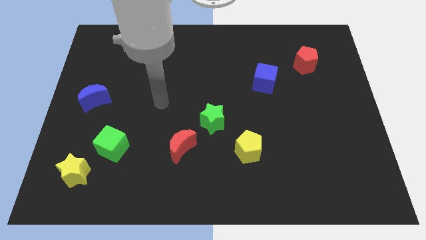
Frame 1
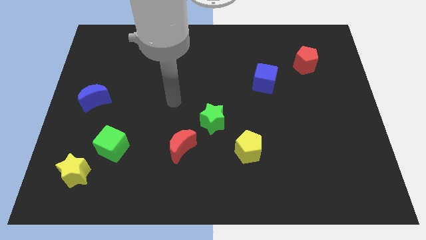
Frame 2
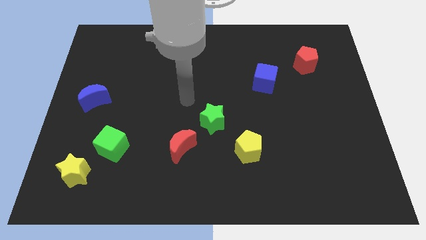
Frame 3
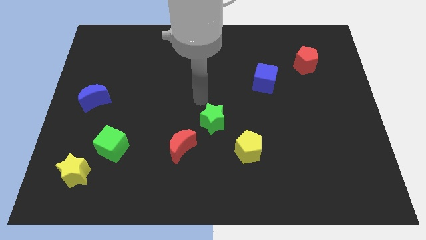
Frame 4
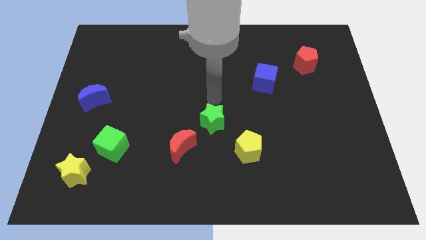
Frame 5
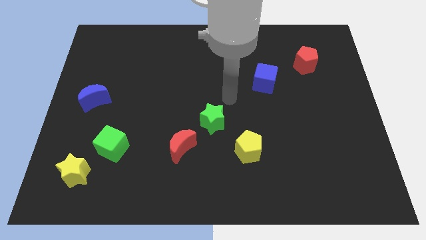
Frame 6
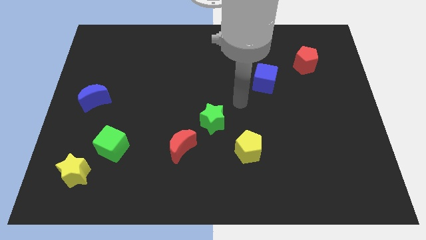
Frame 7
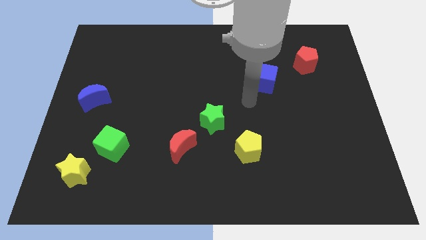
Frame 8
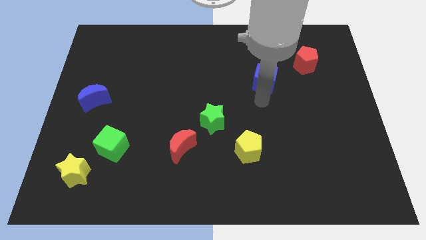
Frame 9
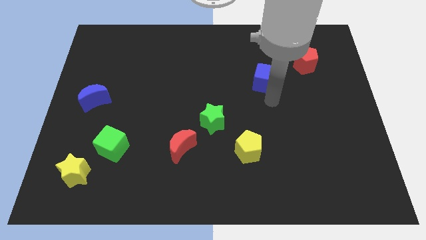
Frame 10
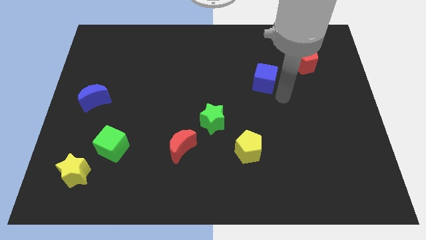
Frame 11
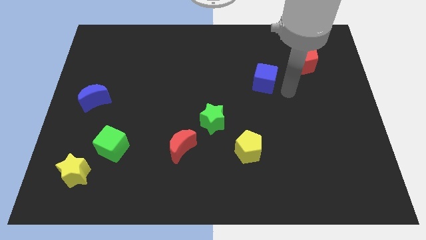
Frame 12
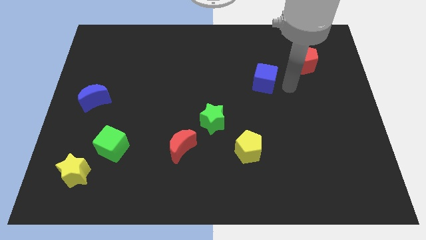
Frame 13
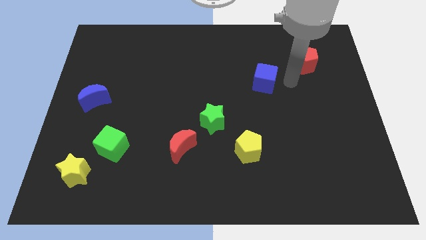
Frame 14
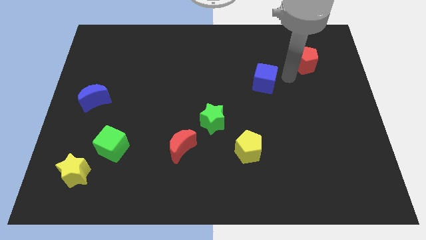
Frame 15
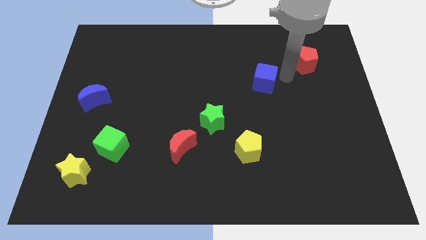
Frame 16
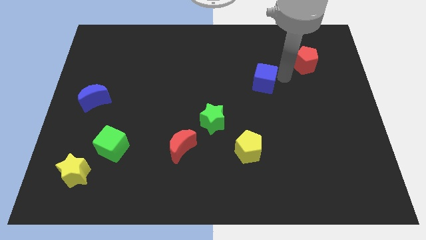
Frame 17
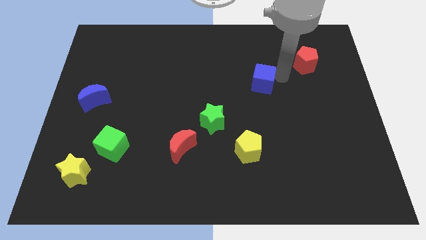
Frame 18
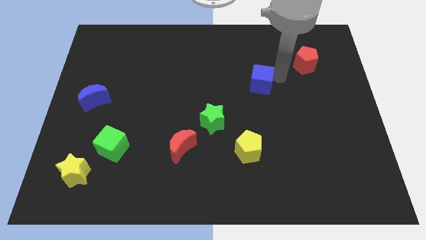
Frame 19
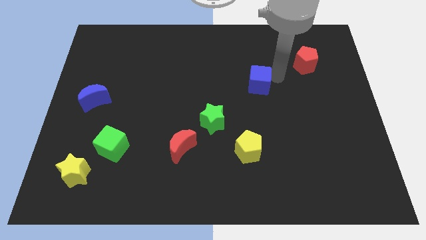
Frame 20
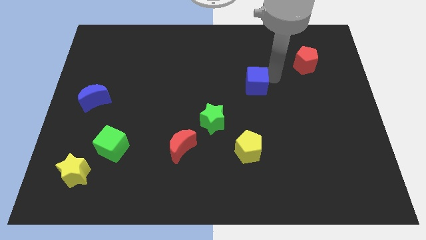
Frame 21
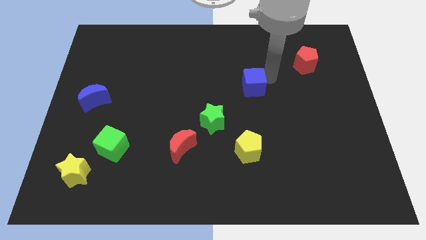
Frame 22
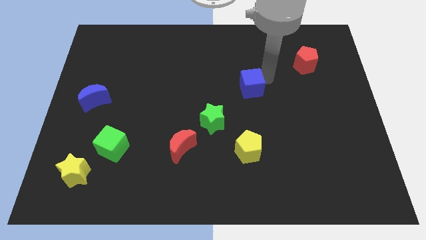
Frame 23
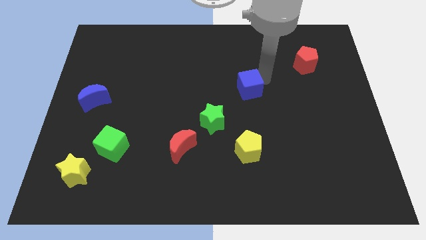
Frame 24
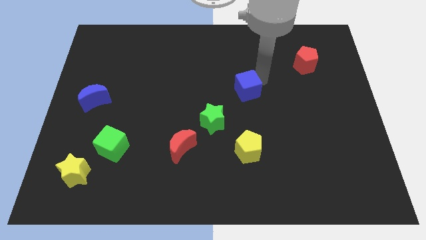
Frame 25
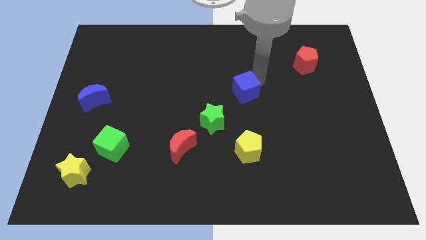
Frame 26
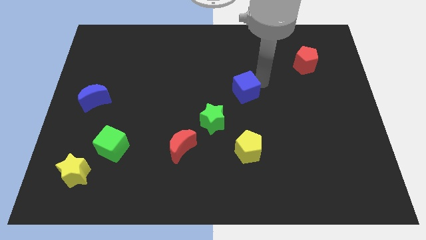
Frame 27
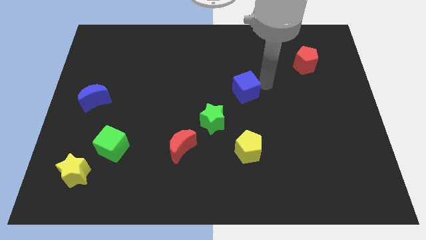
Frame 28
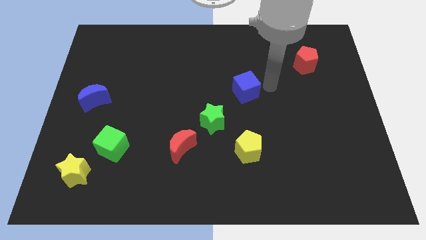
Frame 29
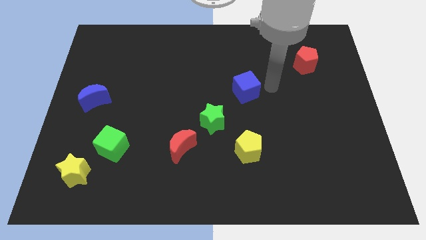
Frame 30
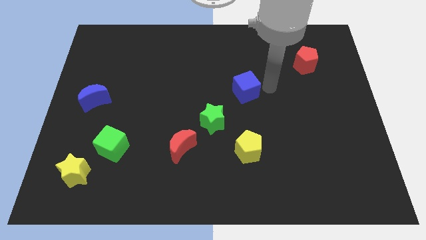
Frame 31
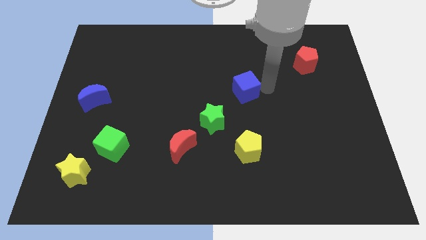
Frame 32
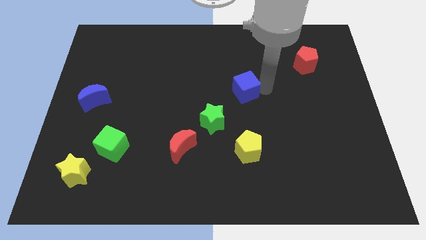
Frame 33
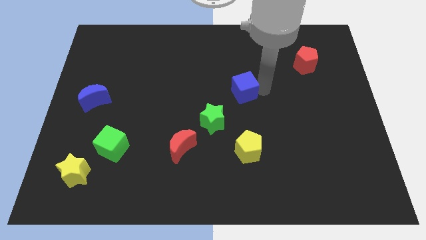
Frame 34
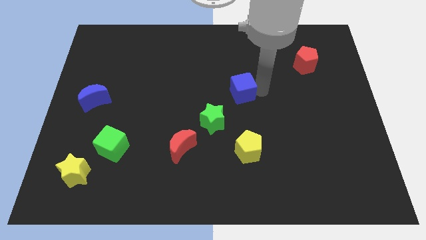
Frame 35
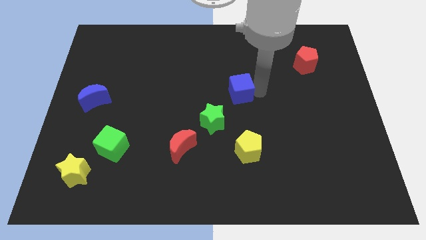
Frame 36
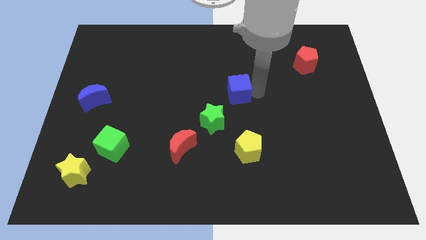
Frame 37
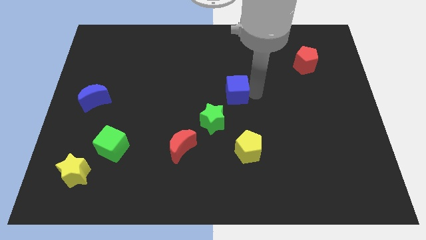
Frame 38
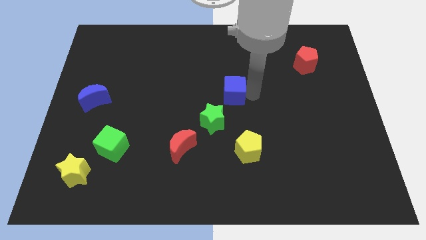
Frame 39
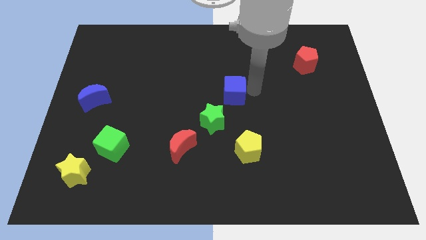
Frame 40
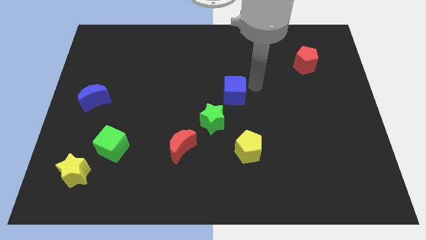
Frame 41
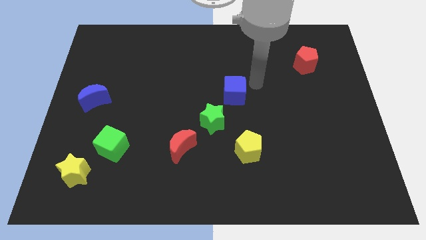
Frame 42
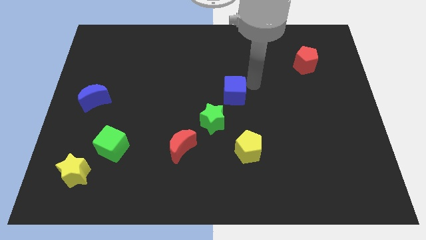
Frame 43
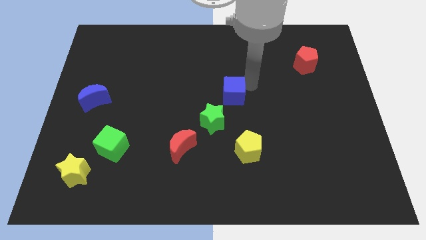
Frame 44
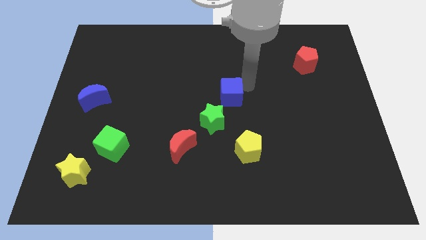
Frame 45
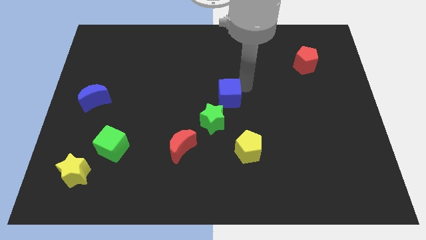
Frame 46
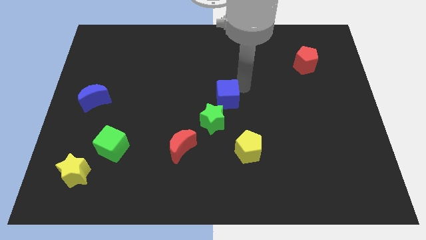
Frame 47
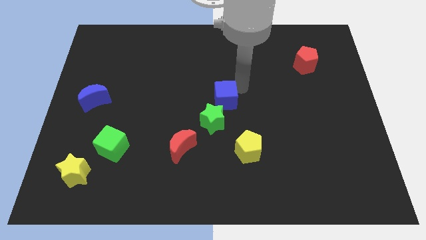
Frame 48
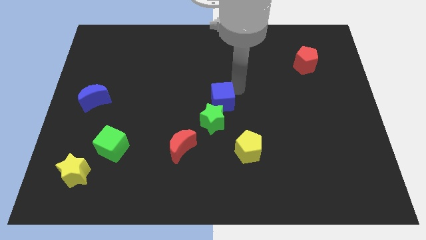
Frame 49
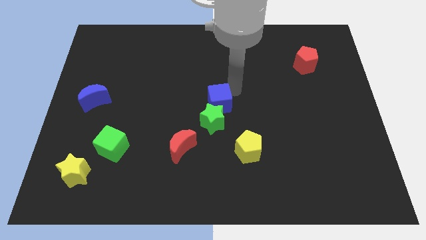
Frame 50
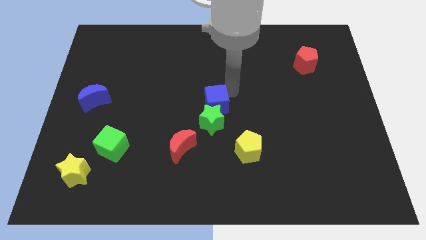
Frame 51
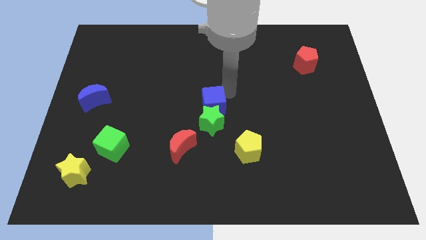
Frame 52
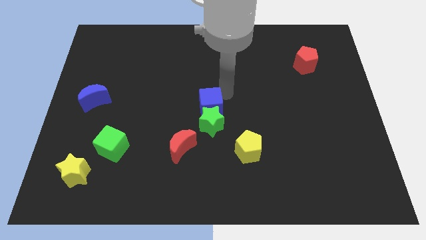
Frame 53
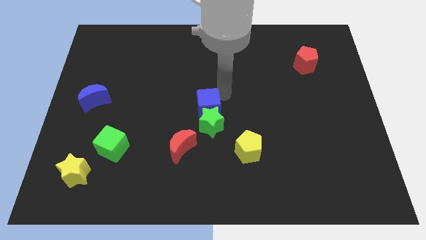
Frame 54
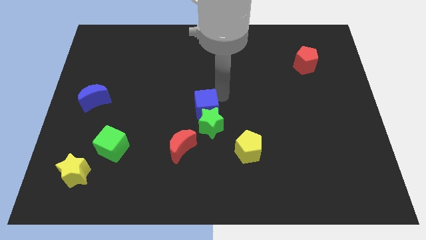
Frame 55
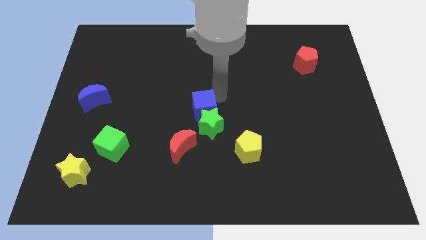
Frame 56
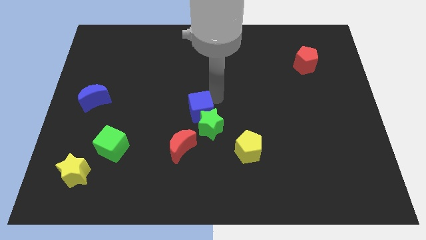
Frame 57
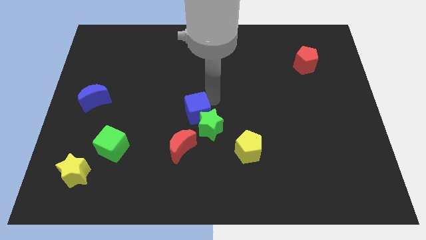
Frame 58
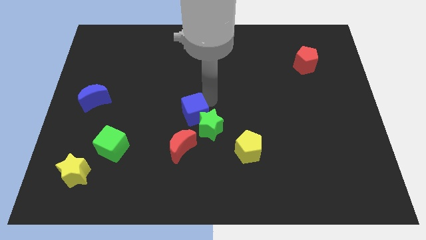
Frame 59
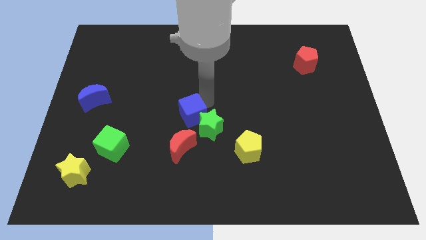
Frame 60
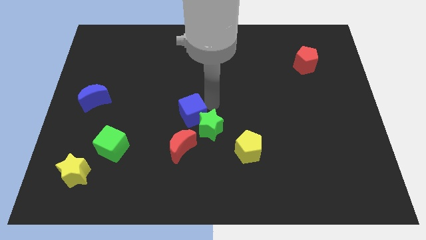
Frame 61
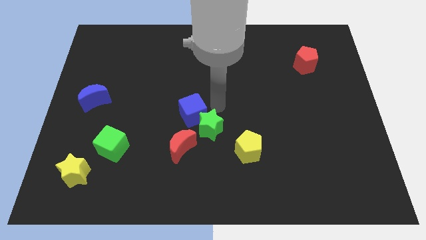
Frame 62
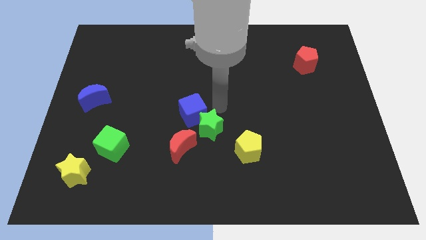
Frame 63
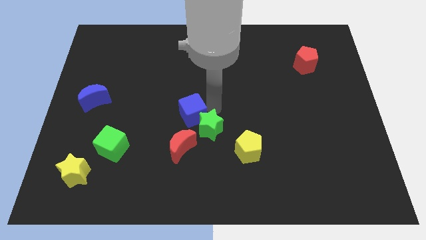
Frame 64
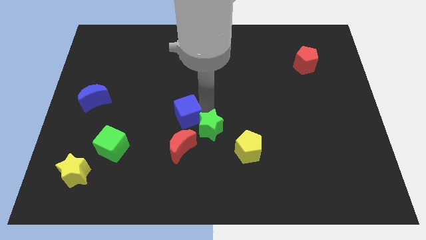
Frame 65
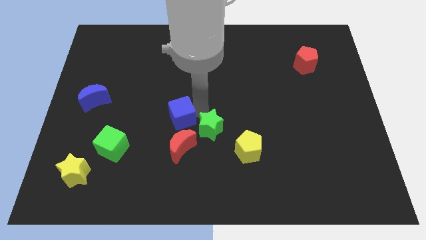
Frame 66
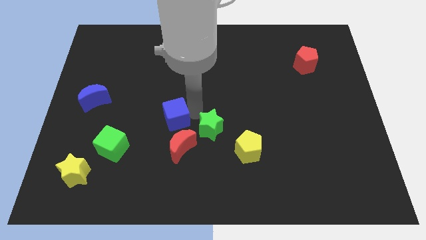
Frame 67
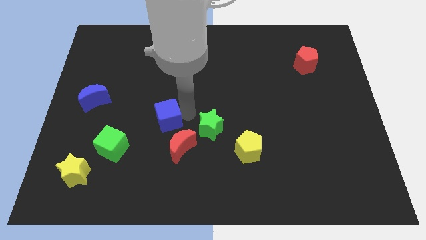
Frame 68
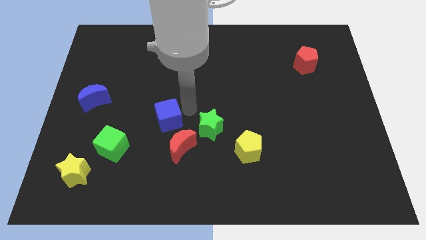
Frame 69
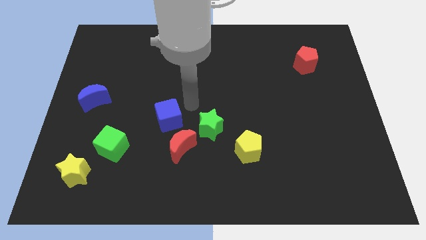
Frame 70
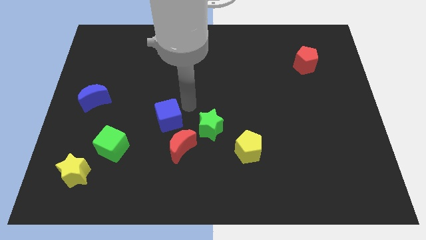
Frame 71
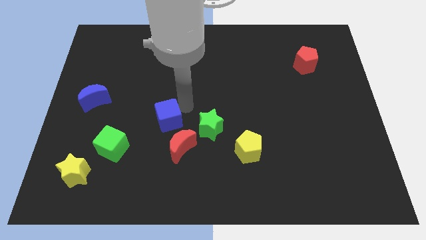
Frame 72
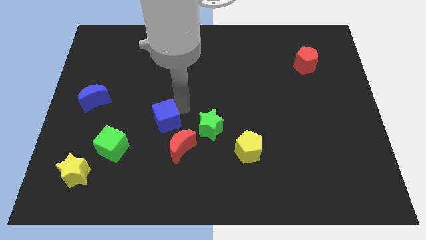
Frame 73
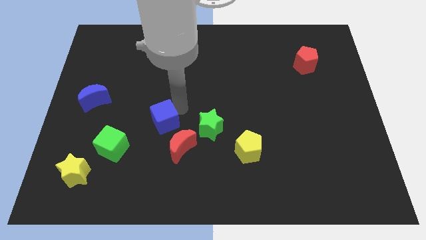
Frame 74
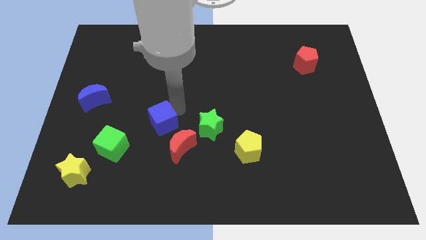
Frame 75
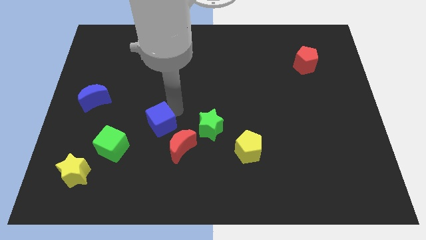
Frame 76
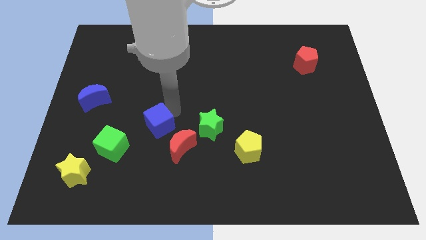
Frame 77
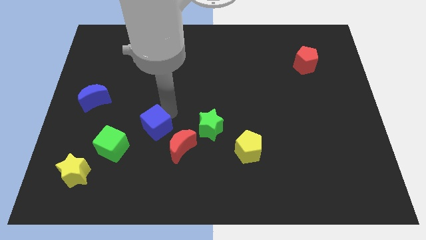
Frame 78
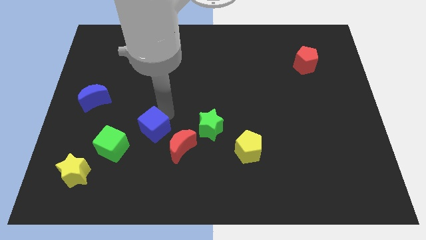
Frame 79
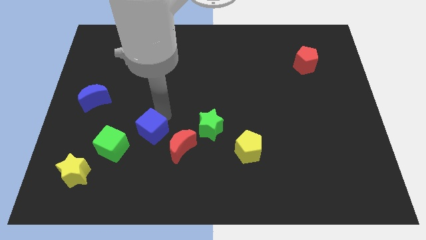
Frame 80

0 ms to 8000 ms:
put the blue cube left of the red moon
